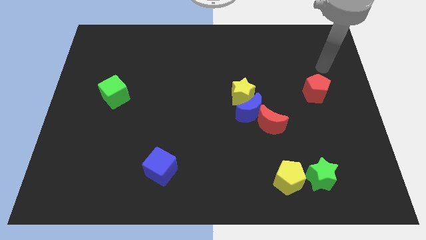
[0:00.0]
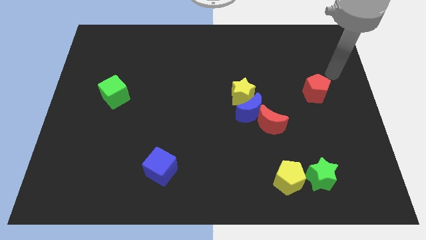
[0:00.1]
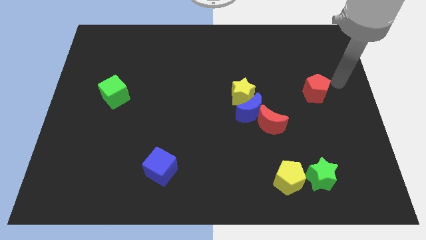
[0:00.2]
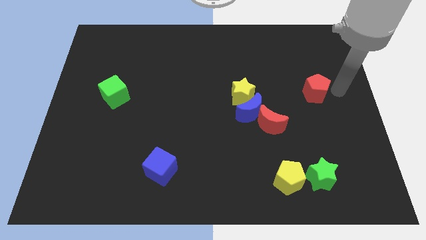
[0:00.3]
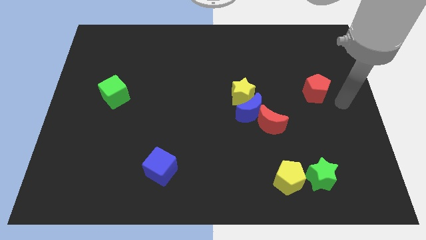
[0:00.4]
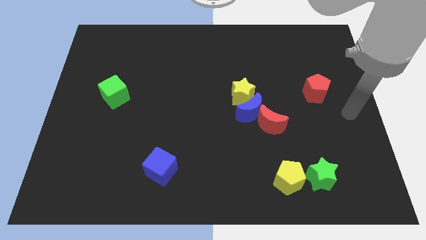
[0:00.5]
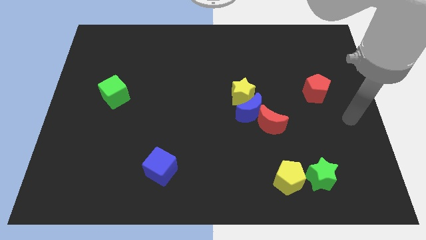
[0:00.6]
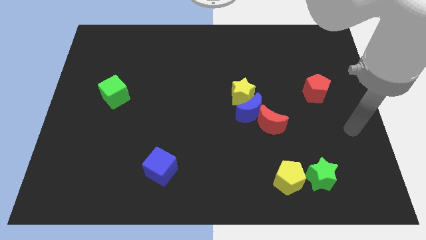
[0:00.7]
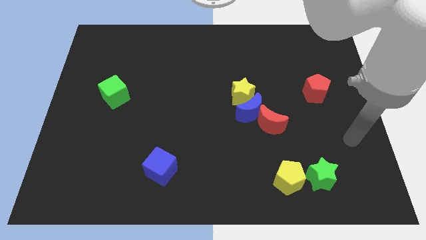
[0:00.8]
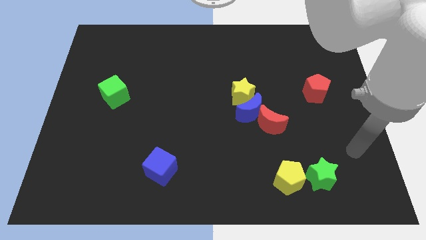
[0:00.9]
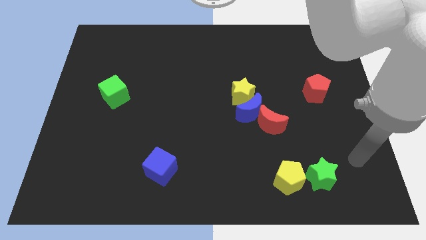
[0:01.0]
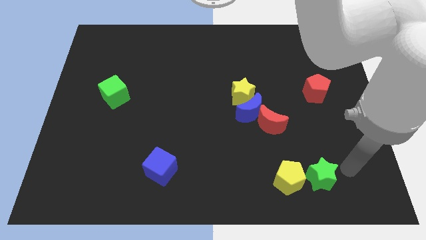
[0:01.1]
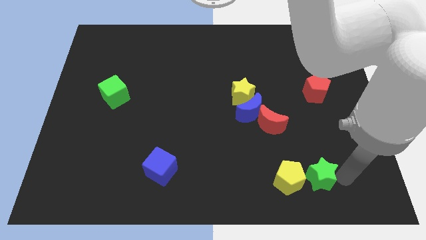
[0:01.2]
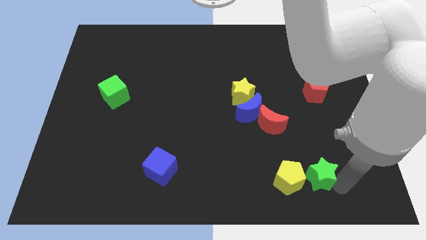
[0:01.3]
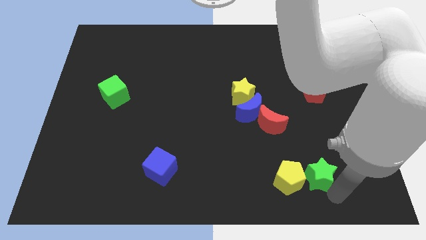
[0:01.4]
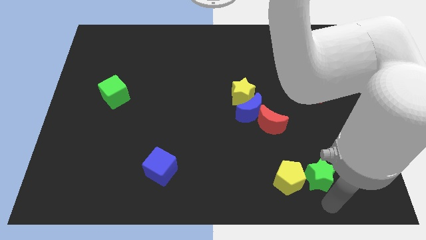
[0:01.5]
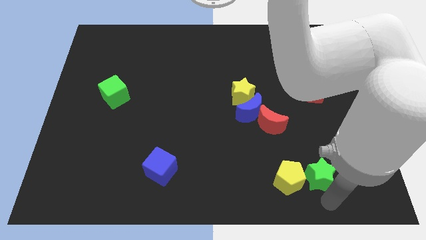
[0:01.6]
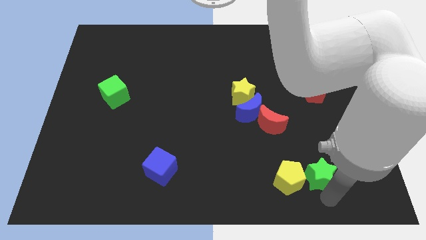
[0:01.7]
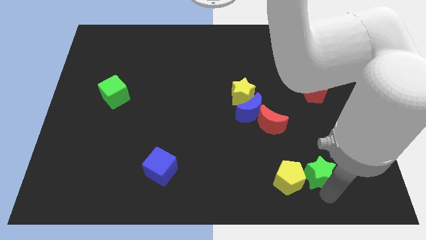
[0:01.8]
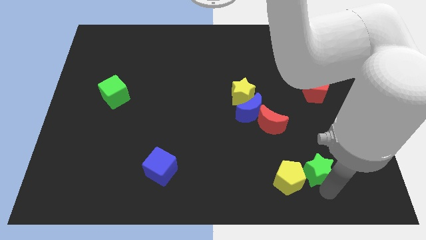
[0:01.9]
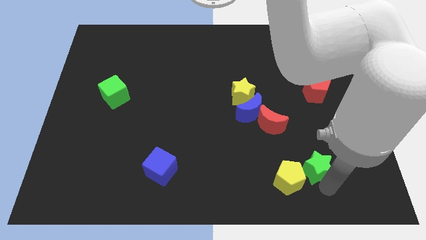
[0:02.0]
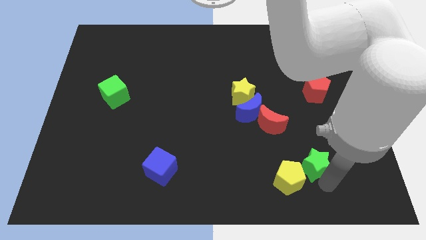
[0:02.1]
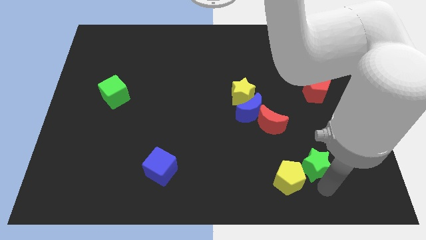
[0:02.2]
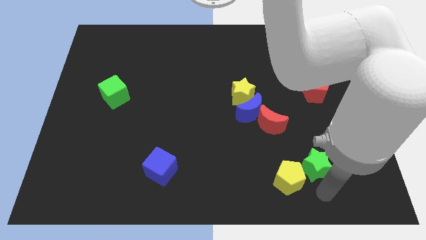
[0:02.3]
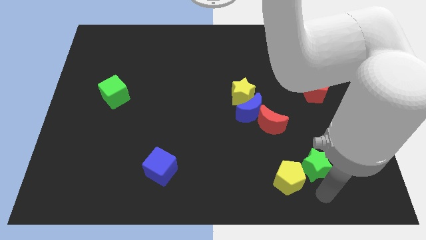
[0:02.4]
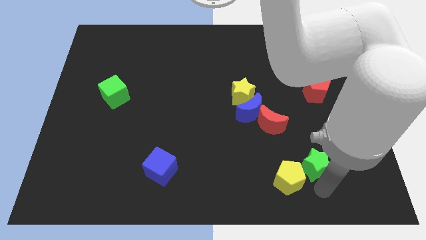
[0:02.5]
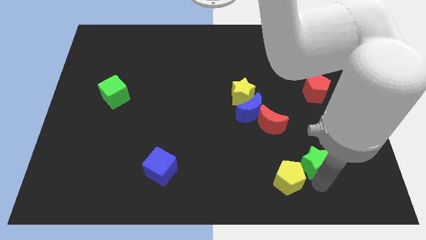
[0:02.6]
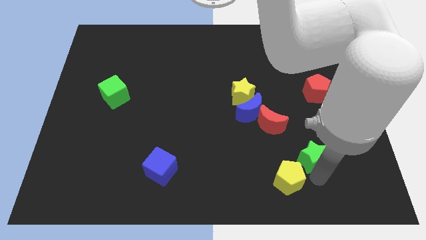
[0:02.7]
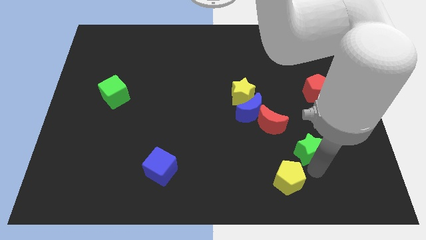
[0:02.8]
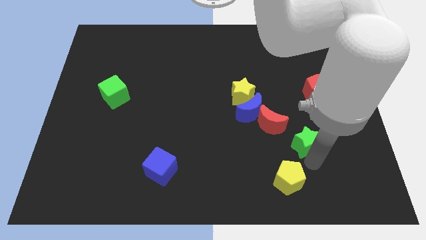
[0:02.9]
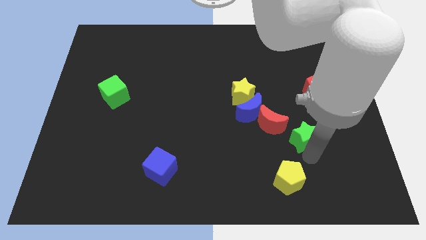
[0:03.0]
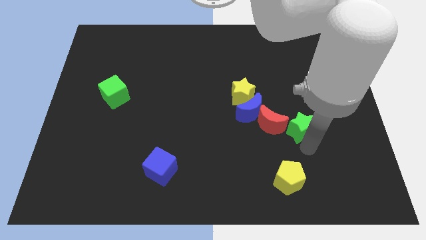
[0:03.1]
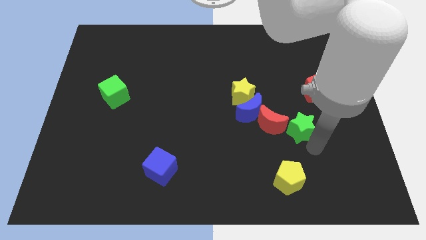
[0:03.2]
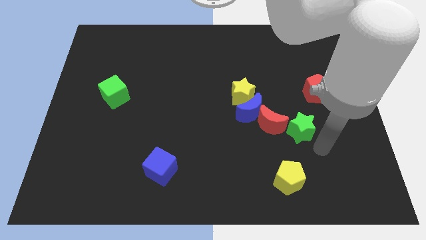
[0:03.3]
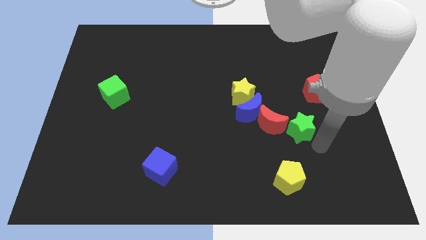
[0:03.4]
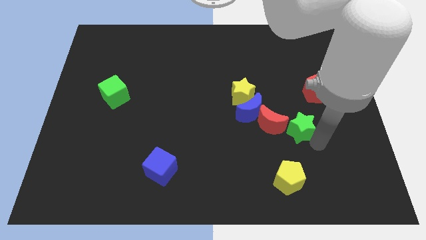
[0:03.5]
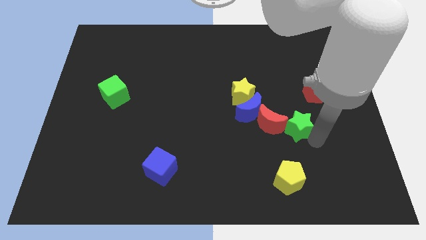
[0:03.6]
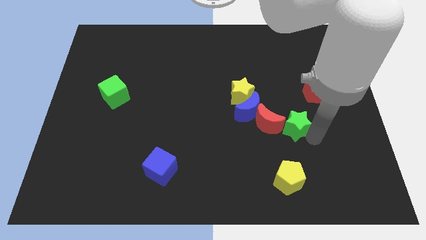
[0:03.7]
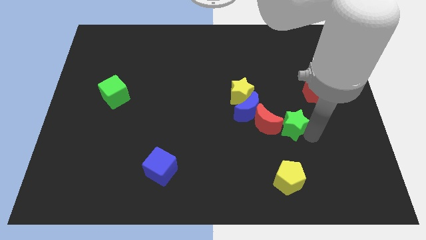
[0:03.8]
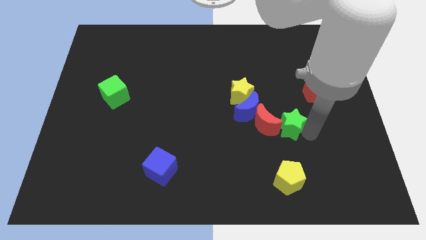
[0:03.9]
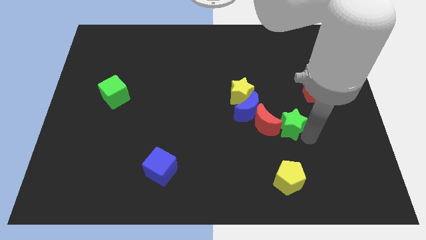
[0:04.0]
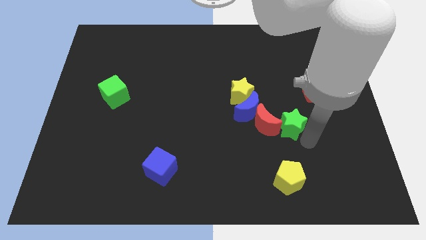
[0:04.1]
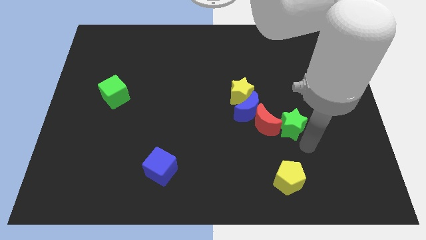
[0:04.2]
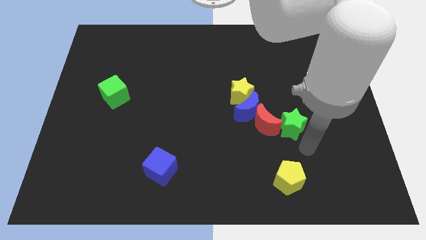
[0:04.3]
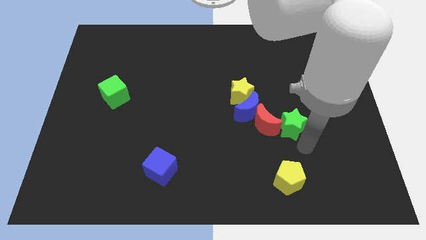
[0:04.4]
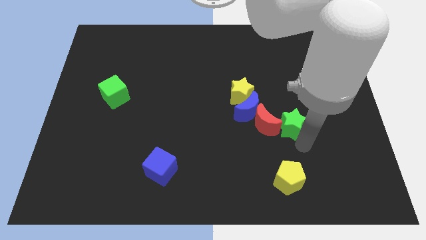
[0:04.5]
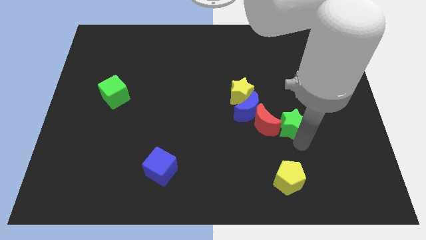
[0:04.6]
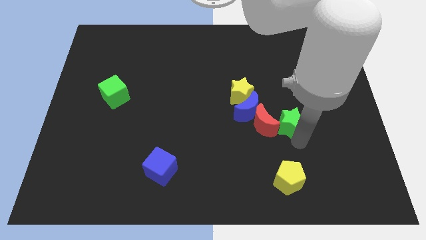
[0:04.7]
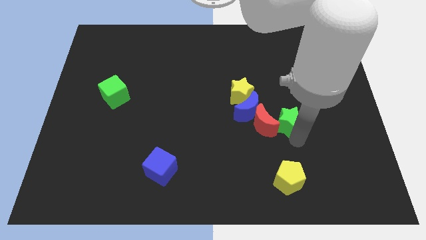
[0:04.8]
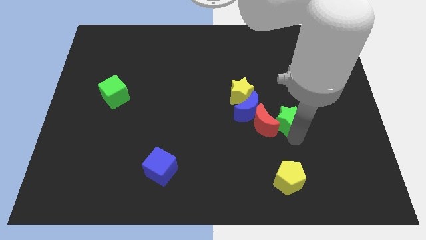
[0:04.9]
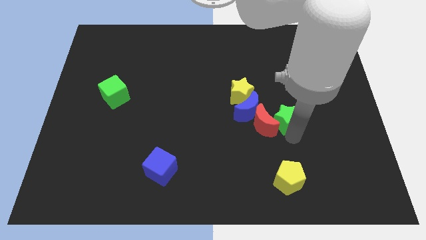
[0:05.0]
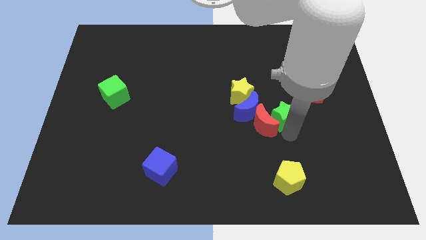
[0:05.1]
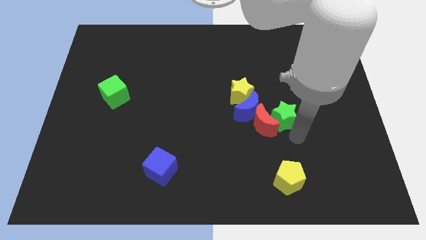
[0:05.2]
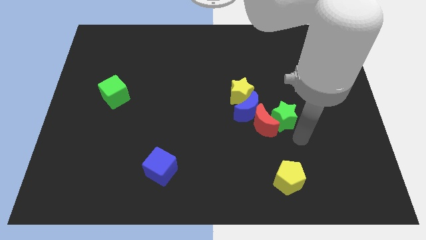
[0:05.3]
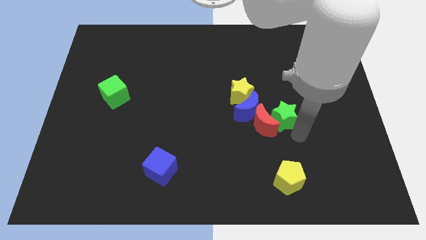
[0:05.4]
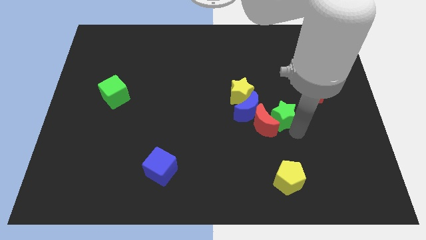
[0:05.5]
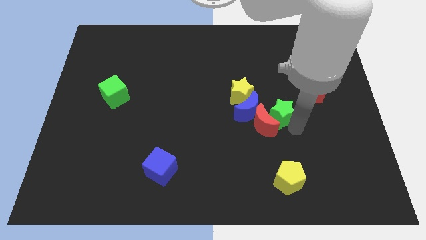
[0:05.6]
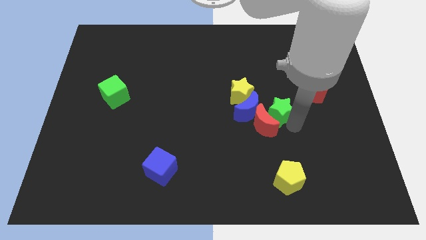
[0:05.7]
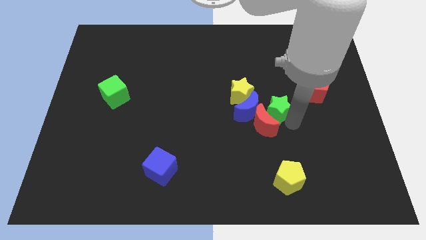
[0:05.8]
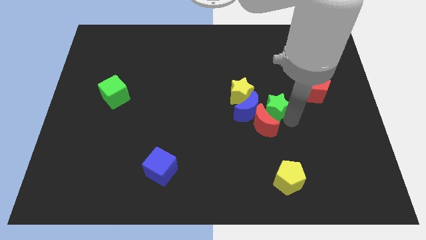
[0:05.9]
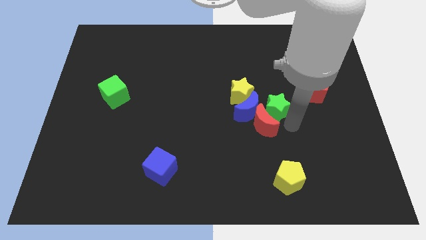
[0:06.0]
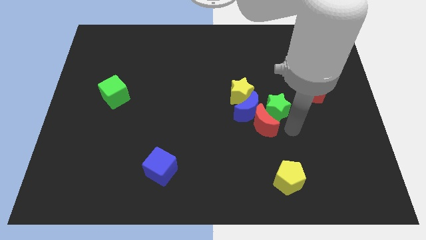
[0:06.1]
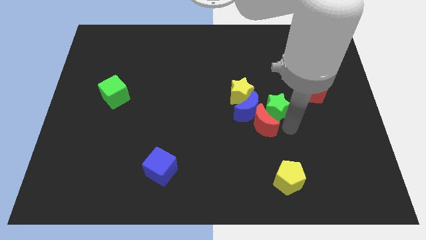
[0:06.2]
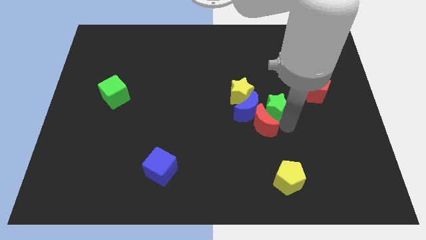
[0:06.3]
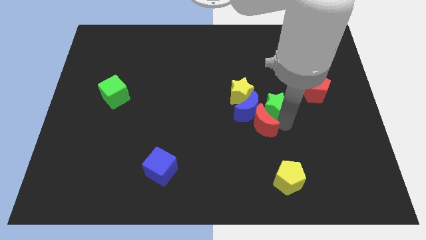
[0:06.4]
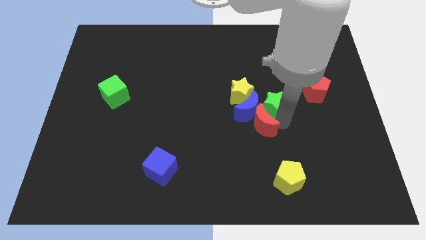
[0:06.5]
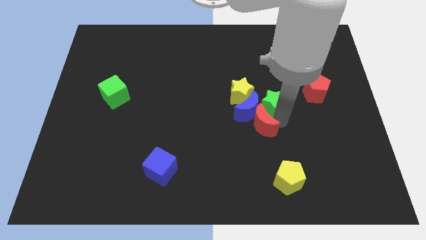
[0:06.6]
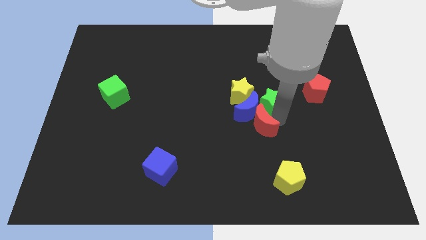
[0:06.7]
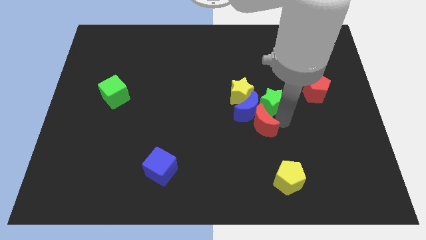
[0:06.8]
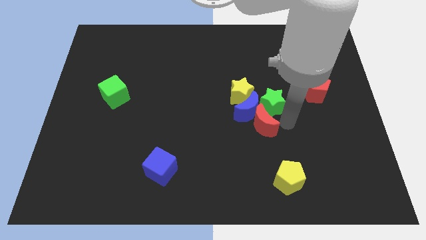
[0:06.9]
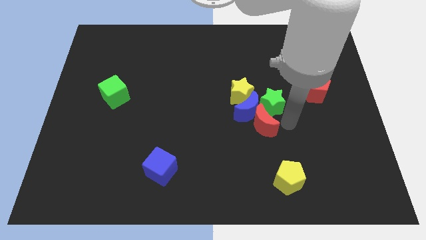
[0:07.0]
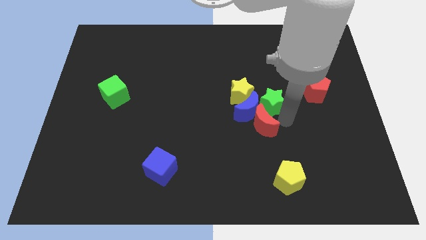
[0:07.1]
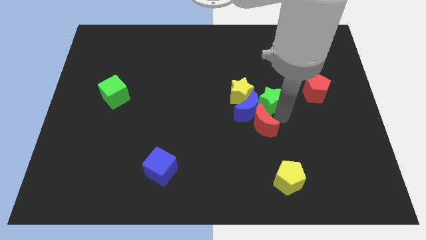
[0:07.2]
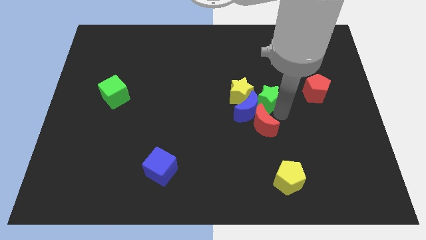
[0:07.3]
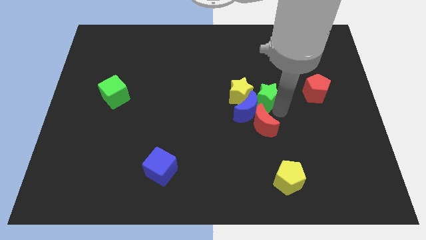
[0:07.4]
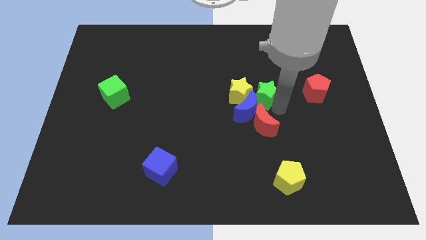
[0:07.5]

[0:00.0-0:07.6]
put the green star to the yellow star
